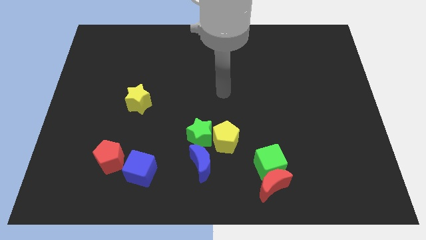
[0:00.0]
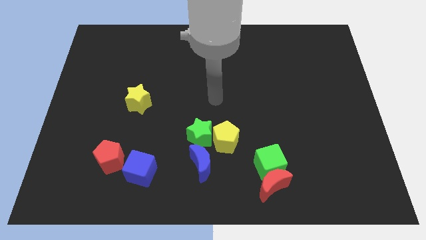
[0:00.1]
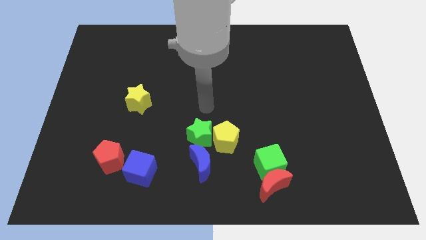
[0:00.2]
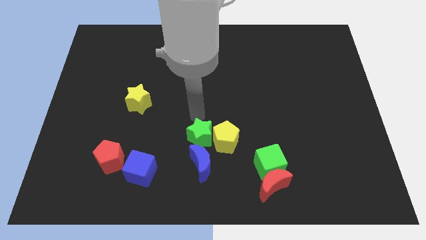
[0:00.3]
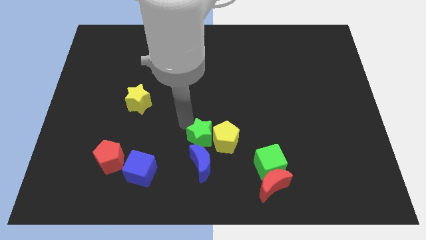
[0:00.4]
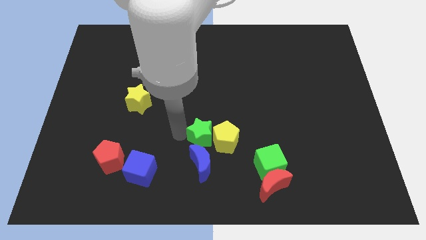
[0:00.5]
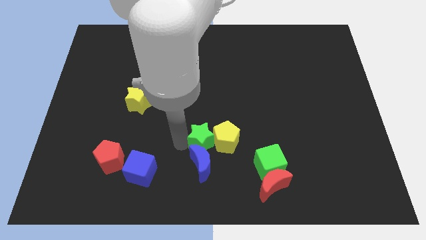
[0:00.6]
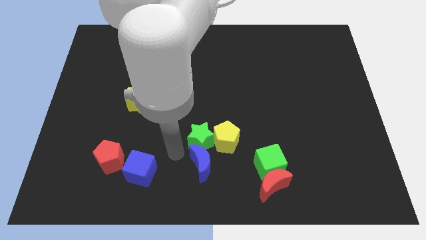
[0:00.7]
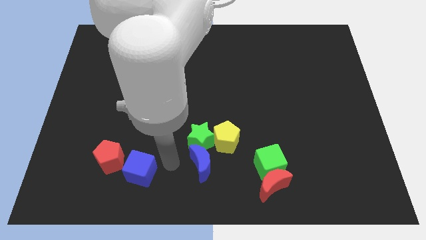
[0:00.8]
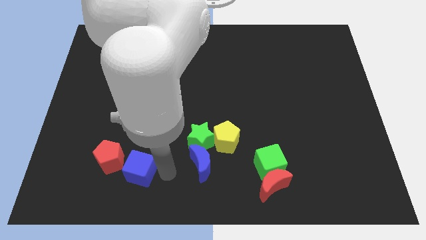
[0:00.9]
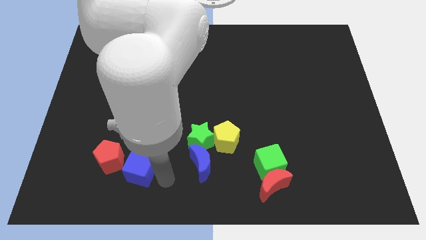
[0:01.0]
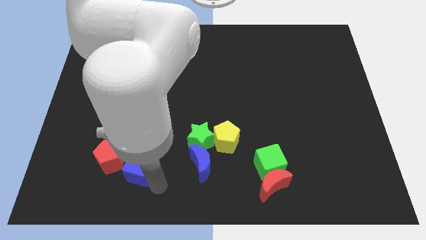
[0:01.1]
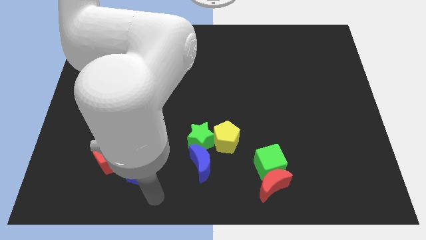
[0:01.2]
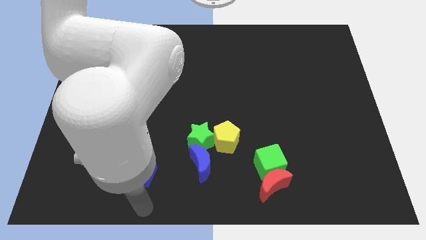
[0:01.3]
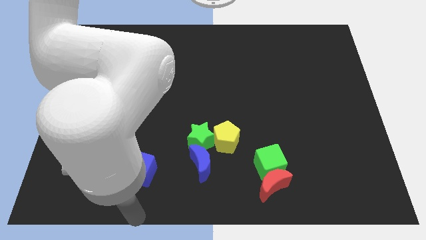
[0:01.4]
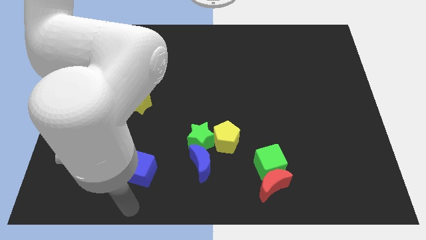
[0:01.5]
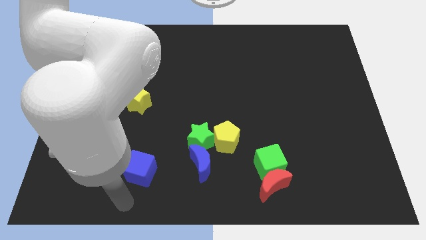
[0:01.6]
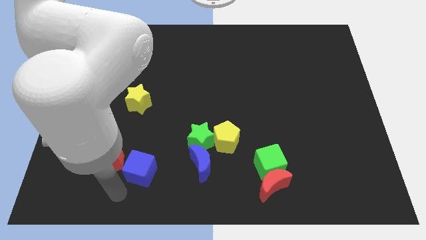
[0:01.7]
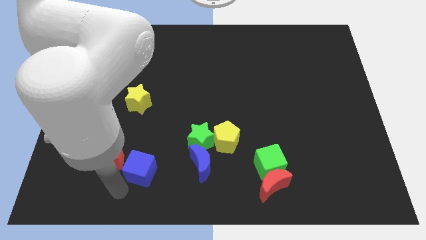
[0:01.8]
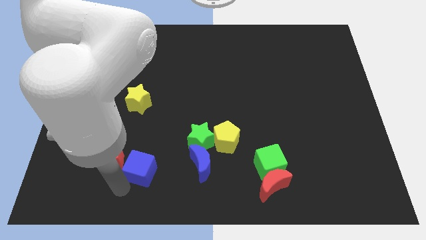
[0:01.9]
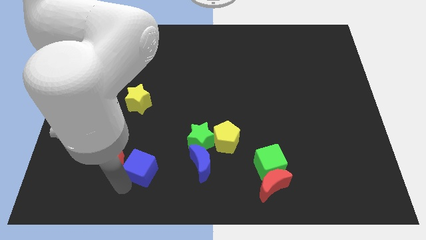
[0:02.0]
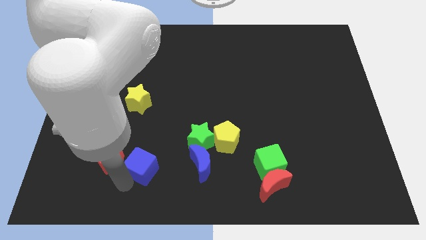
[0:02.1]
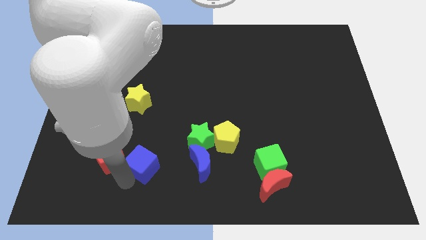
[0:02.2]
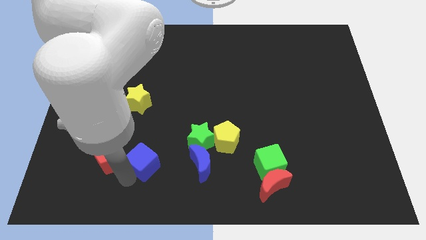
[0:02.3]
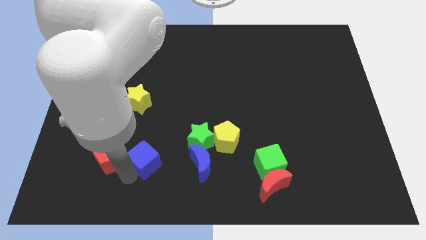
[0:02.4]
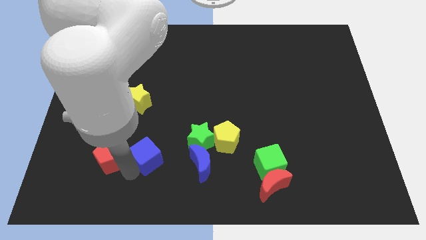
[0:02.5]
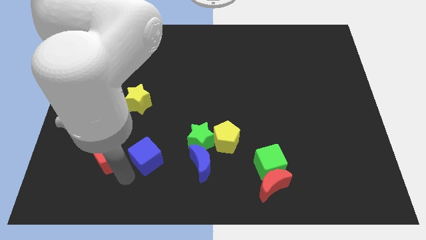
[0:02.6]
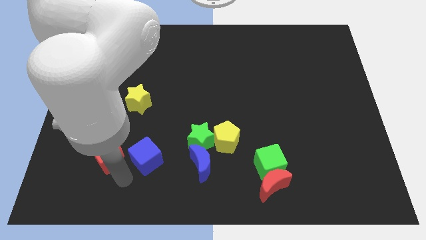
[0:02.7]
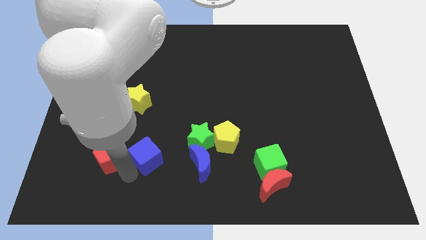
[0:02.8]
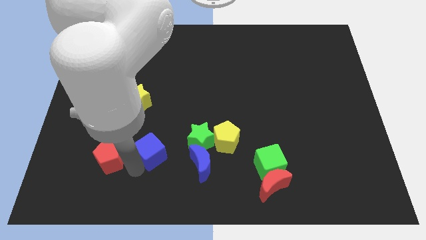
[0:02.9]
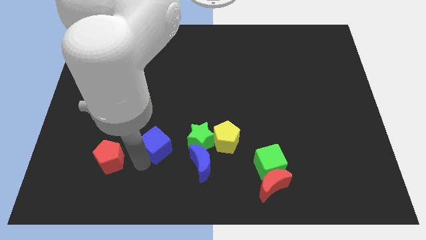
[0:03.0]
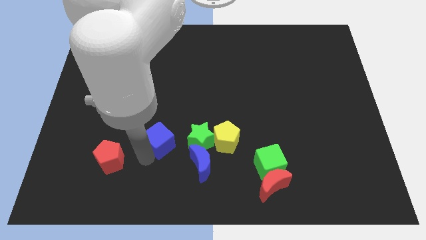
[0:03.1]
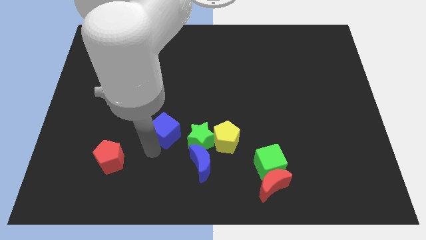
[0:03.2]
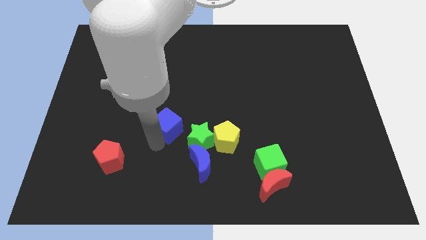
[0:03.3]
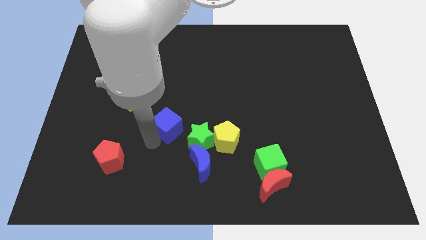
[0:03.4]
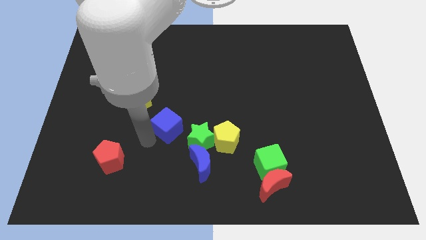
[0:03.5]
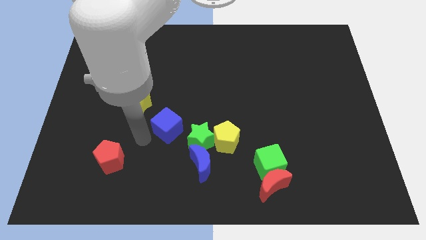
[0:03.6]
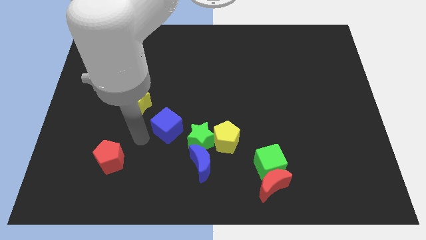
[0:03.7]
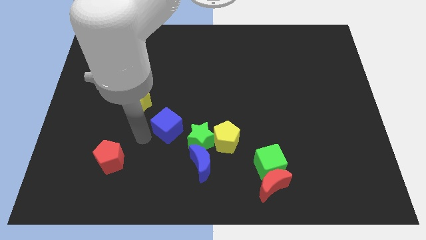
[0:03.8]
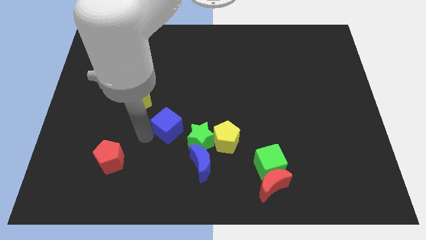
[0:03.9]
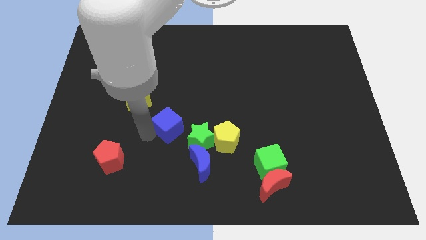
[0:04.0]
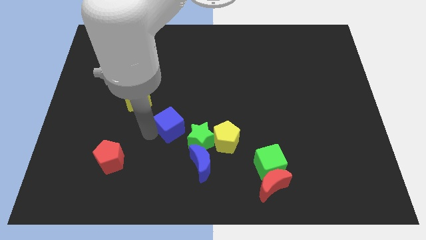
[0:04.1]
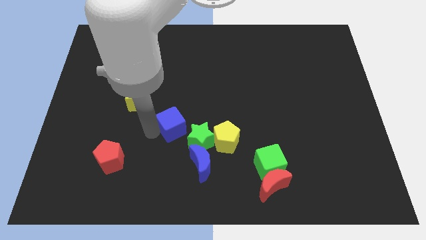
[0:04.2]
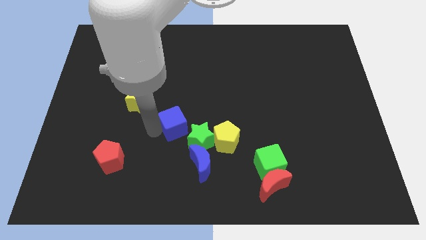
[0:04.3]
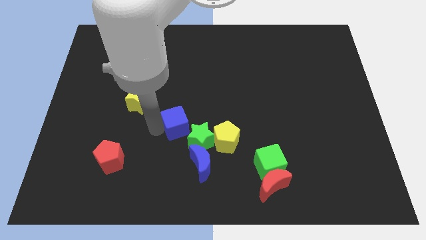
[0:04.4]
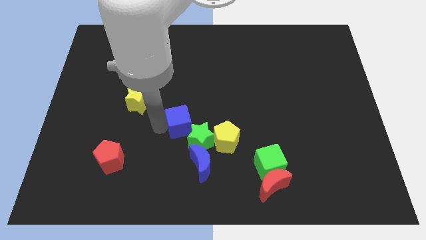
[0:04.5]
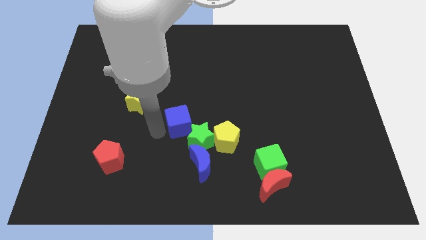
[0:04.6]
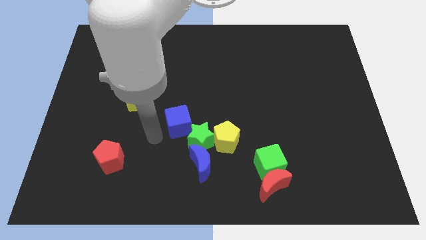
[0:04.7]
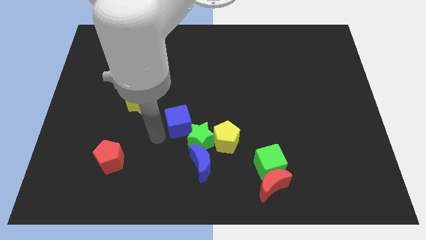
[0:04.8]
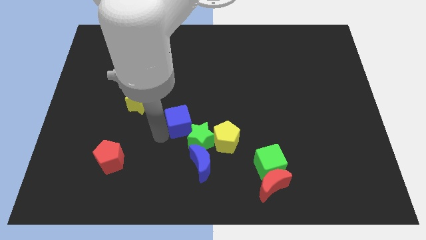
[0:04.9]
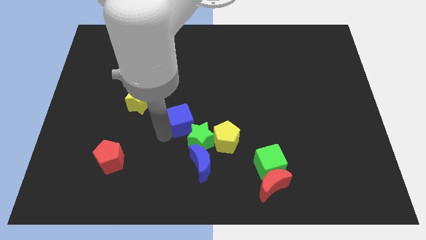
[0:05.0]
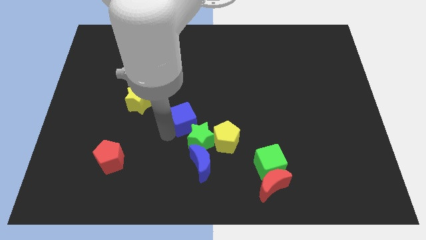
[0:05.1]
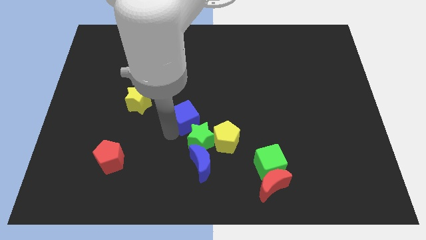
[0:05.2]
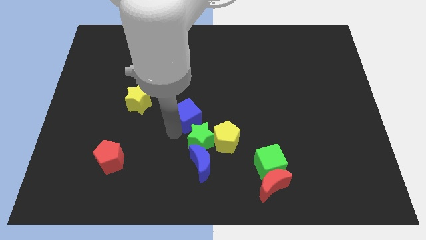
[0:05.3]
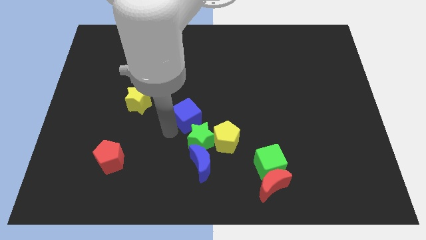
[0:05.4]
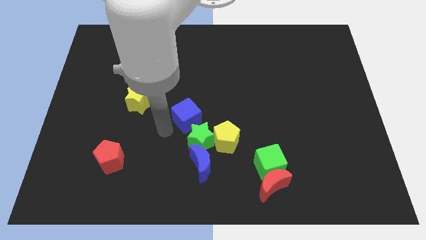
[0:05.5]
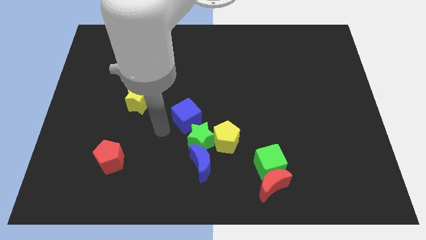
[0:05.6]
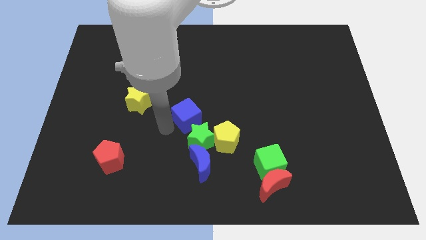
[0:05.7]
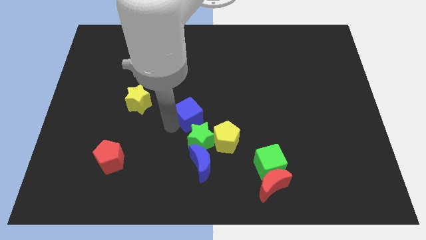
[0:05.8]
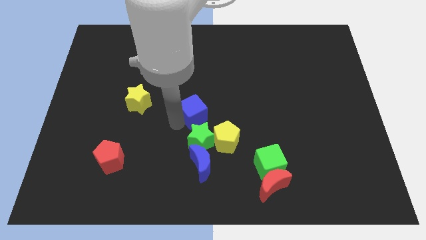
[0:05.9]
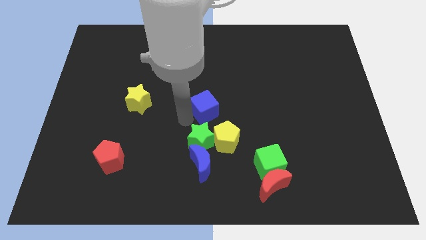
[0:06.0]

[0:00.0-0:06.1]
push the blue cube upwards and then to the right

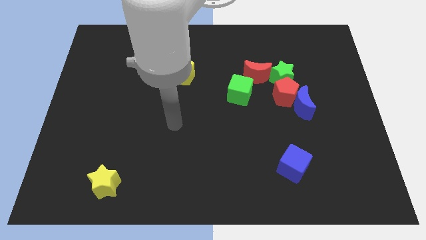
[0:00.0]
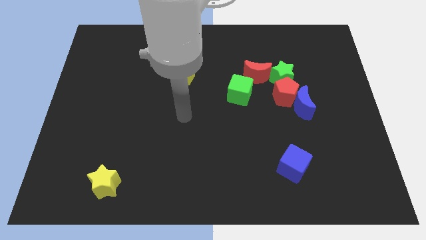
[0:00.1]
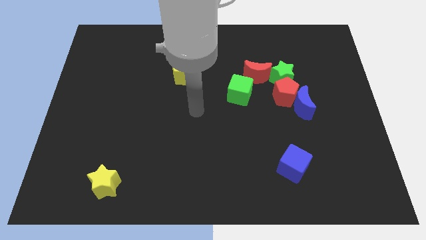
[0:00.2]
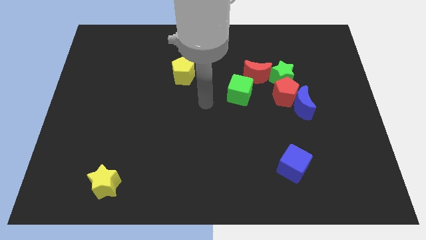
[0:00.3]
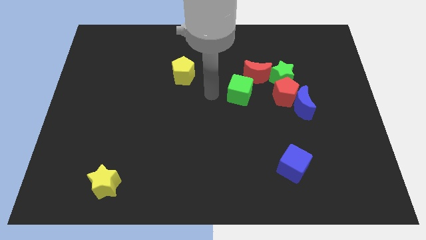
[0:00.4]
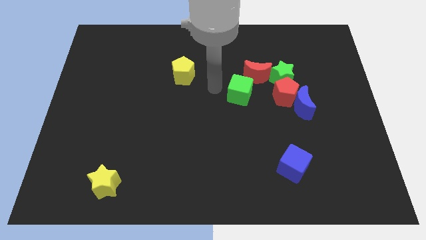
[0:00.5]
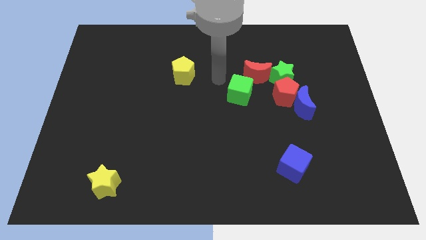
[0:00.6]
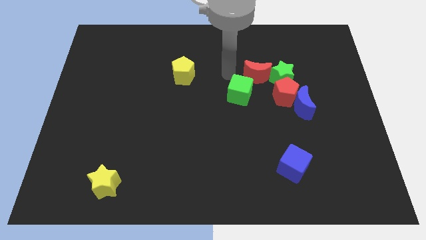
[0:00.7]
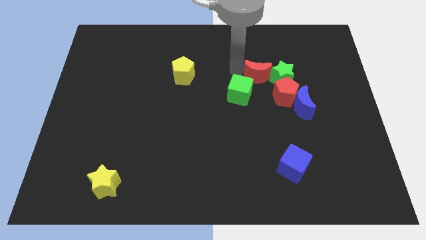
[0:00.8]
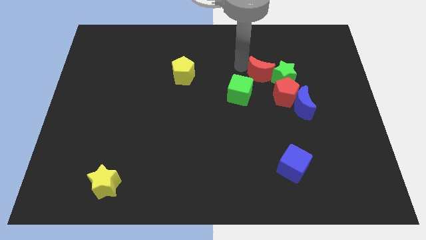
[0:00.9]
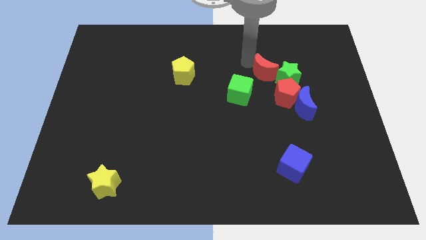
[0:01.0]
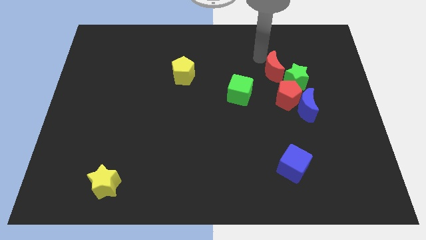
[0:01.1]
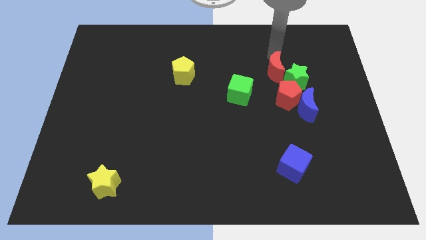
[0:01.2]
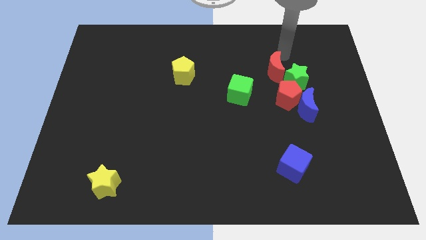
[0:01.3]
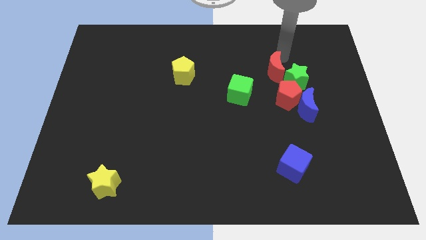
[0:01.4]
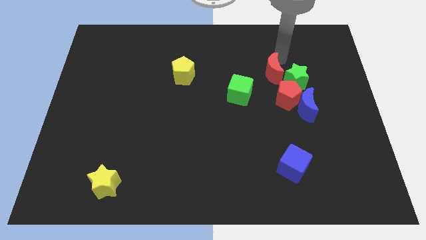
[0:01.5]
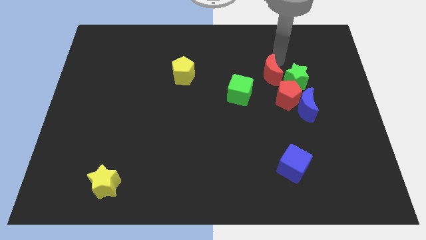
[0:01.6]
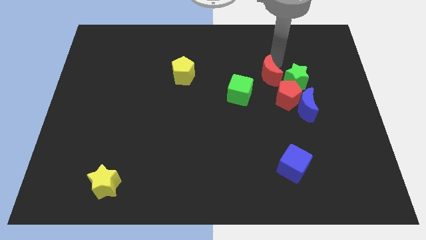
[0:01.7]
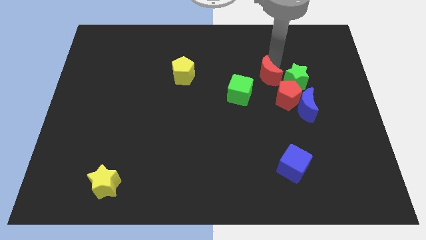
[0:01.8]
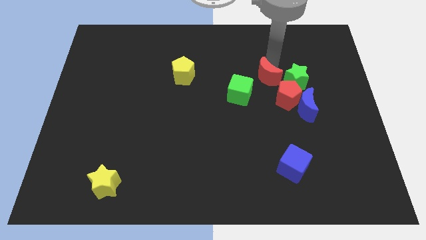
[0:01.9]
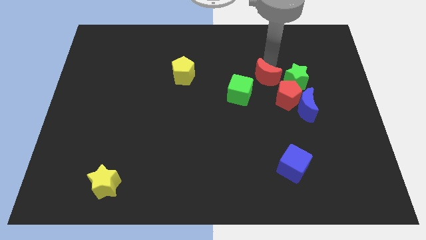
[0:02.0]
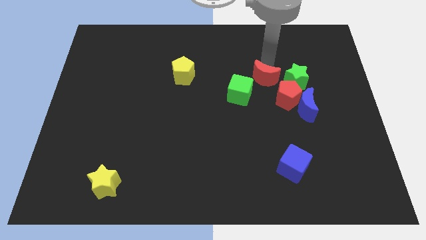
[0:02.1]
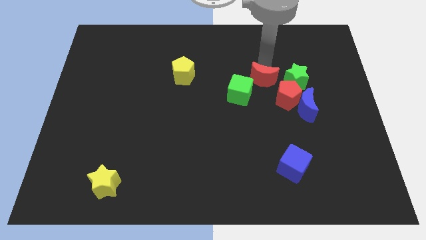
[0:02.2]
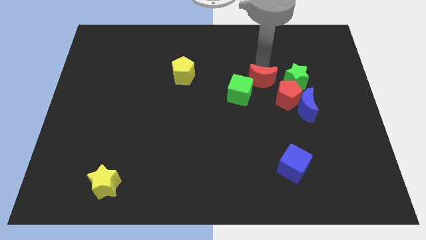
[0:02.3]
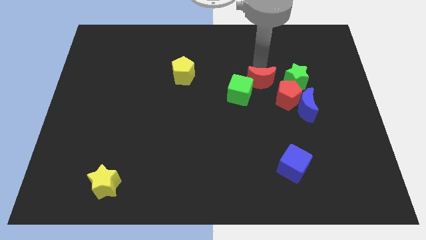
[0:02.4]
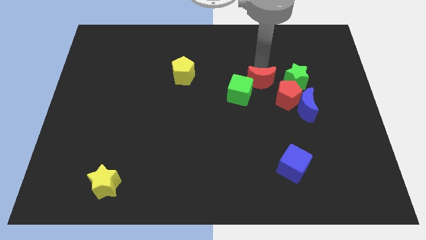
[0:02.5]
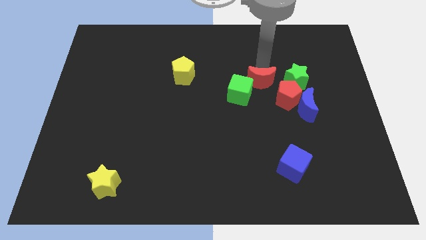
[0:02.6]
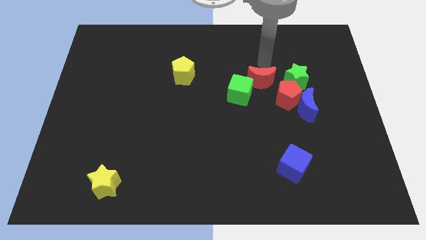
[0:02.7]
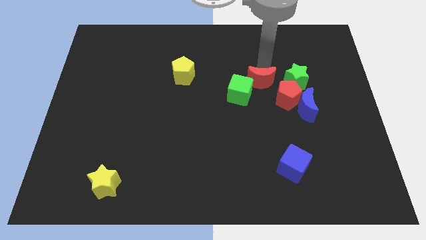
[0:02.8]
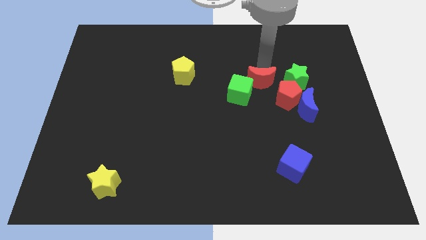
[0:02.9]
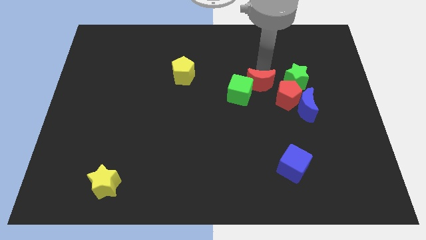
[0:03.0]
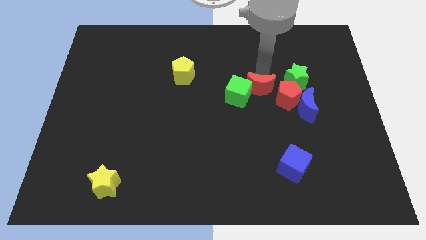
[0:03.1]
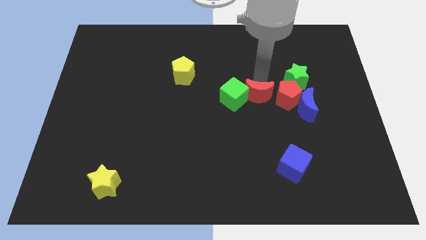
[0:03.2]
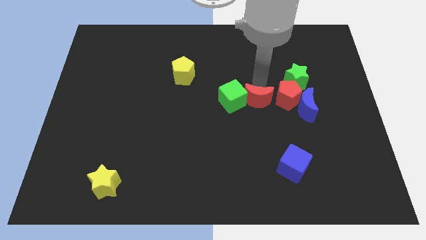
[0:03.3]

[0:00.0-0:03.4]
slide the red moon slightly down
